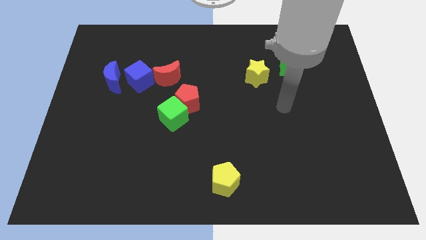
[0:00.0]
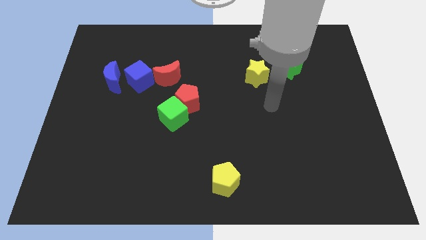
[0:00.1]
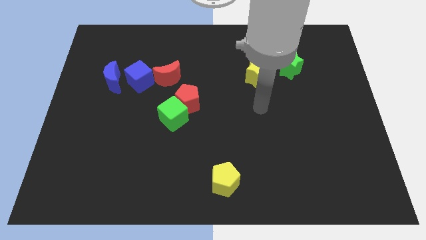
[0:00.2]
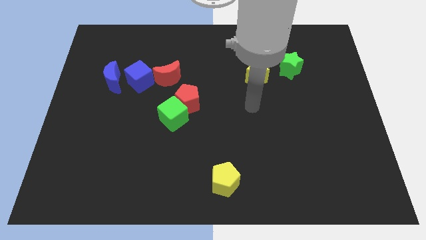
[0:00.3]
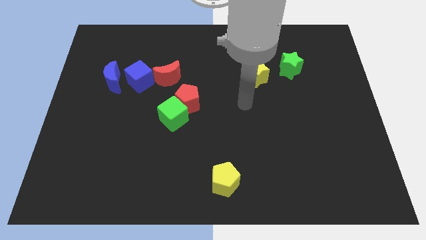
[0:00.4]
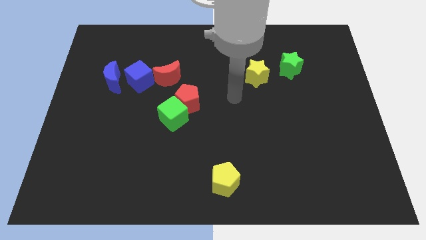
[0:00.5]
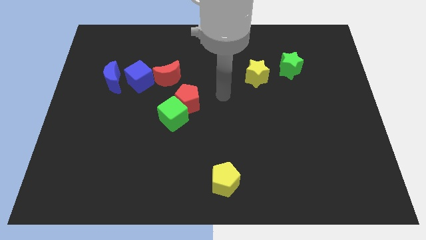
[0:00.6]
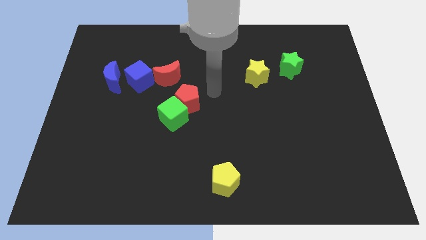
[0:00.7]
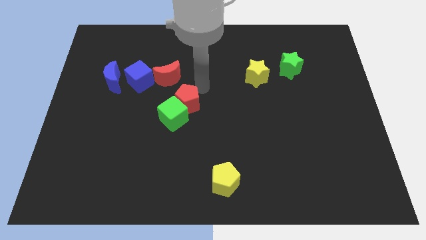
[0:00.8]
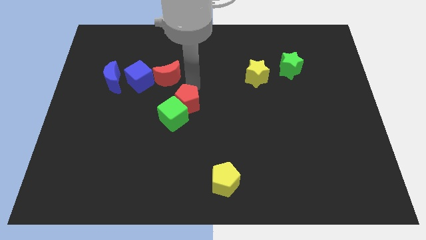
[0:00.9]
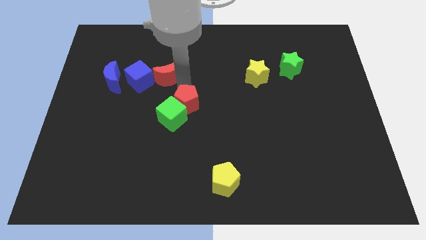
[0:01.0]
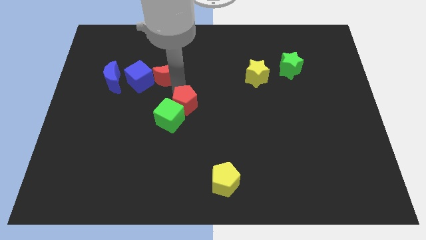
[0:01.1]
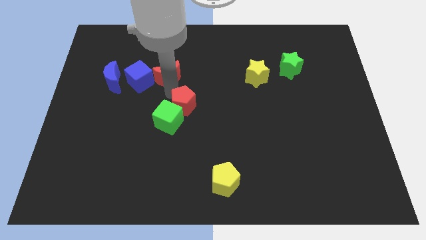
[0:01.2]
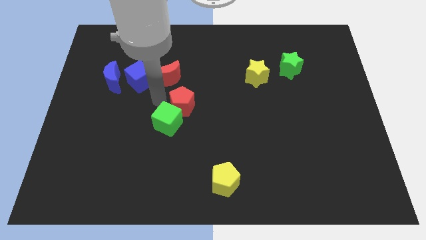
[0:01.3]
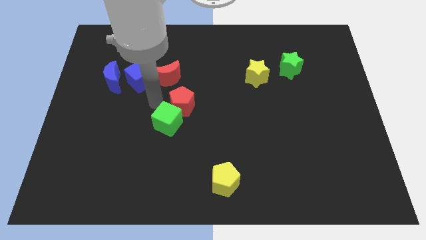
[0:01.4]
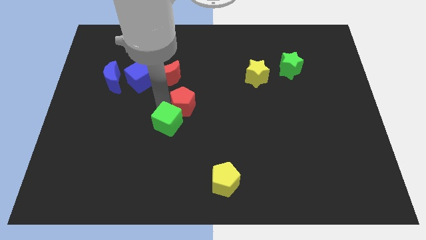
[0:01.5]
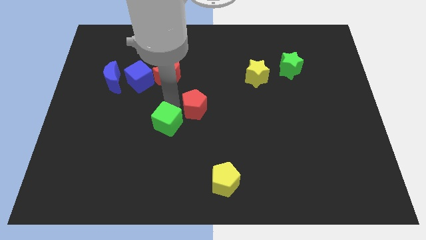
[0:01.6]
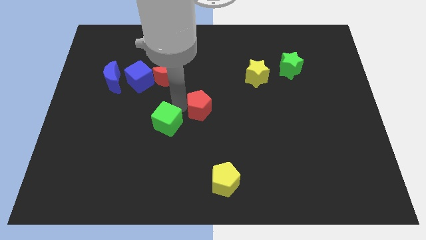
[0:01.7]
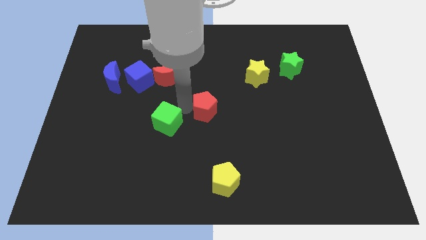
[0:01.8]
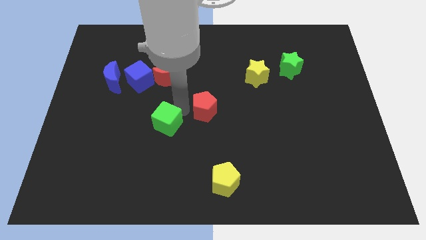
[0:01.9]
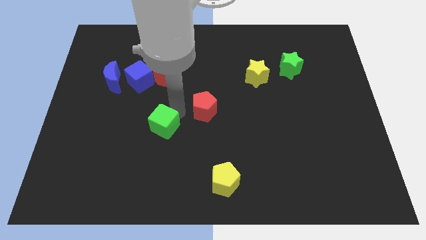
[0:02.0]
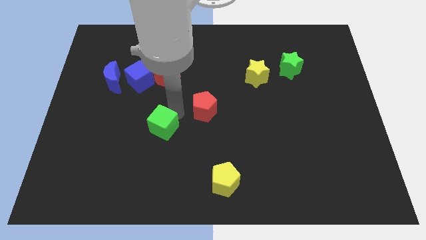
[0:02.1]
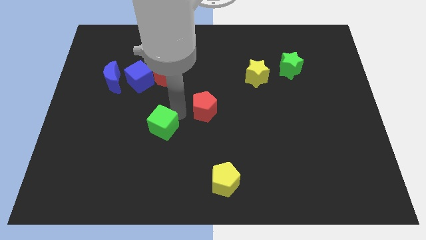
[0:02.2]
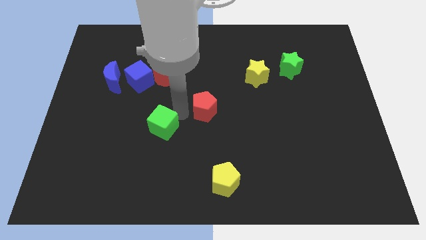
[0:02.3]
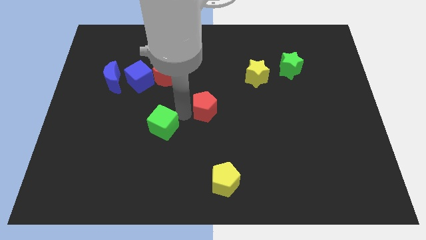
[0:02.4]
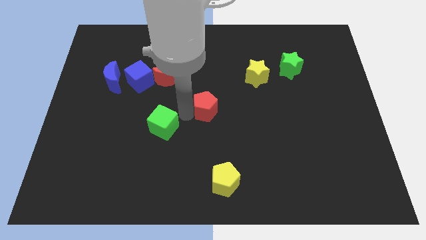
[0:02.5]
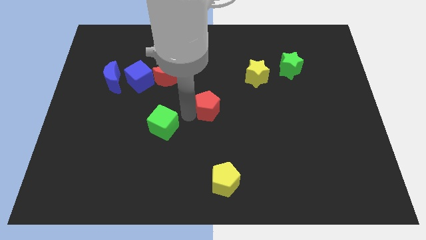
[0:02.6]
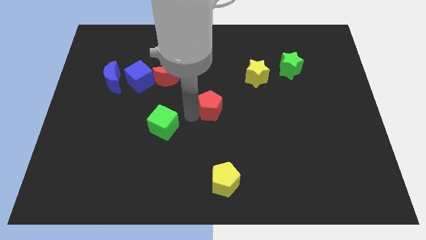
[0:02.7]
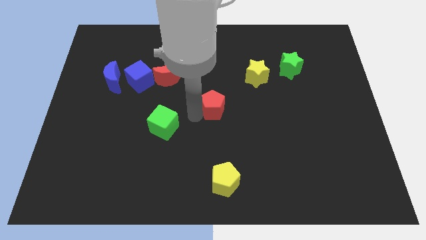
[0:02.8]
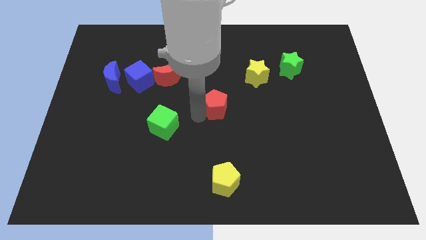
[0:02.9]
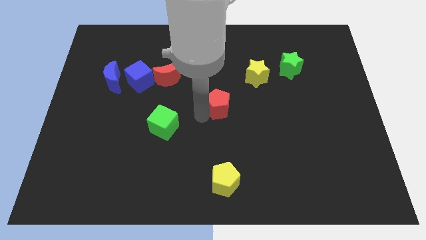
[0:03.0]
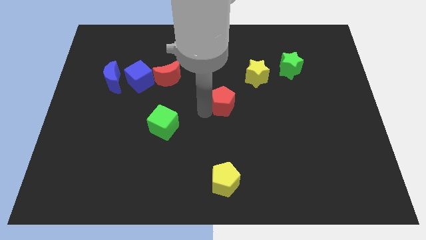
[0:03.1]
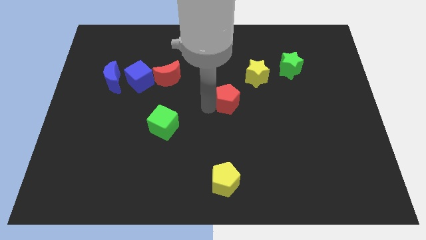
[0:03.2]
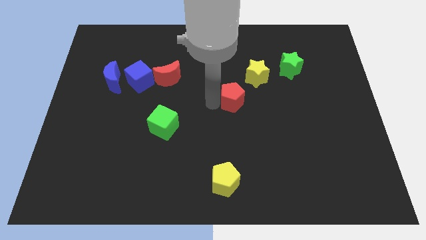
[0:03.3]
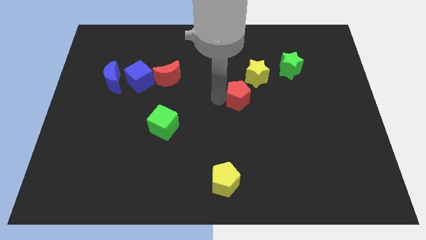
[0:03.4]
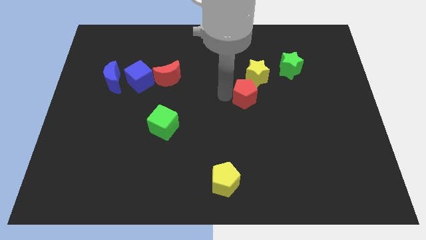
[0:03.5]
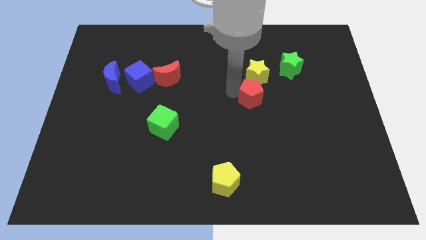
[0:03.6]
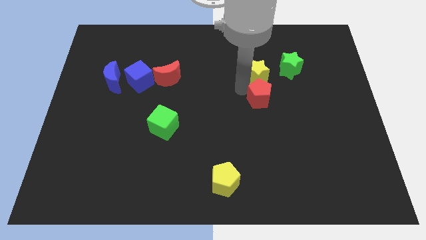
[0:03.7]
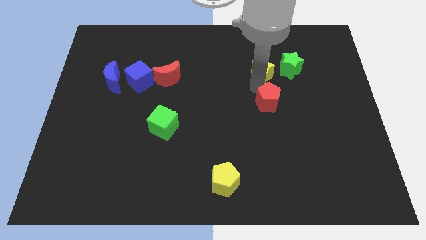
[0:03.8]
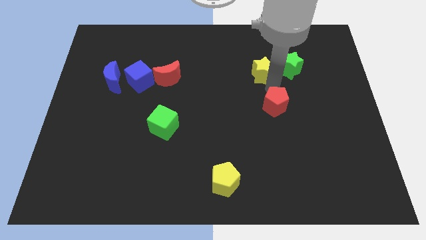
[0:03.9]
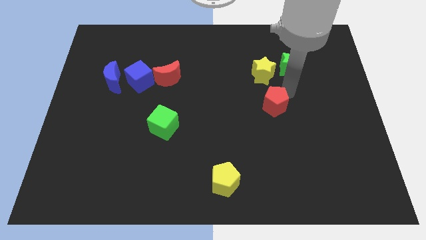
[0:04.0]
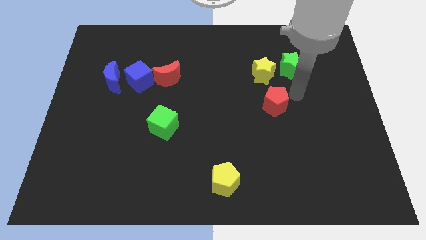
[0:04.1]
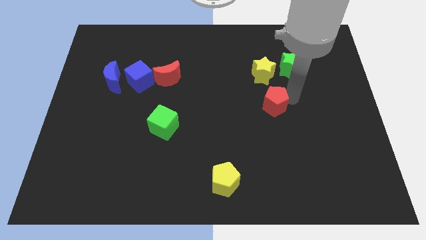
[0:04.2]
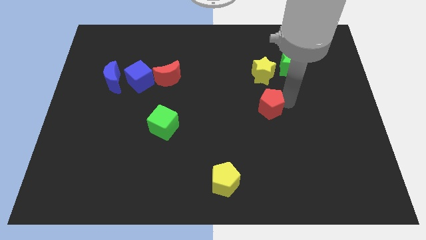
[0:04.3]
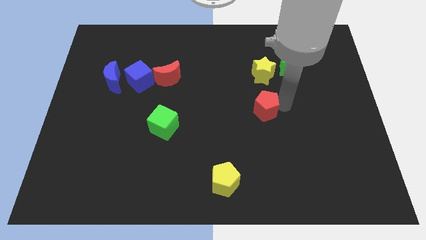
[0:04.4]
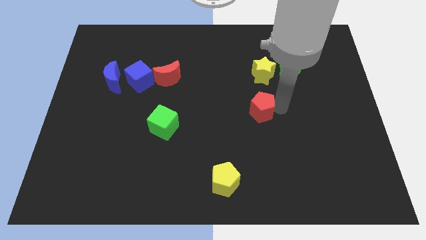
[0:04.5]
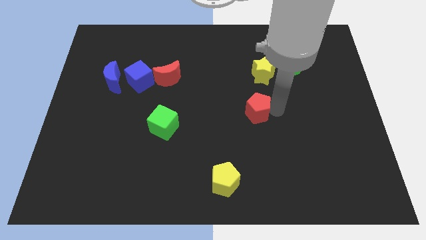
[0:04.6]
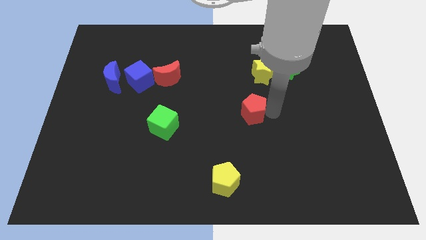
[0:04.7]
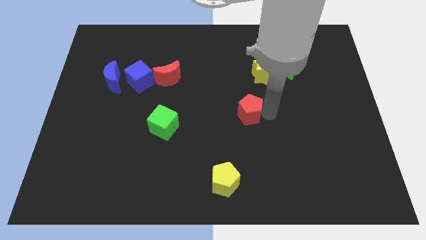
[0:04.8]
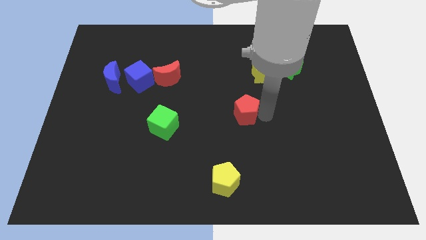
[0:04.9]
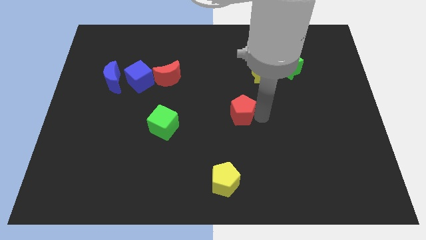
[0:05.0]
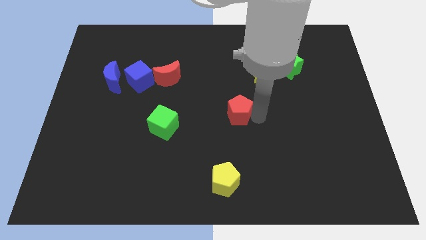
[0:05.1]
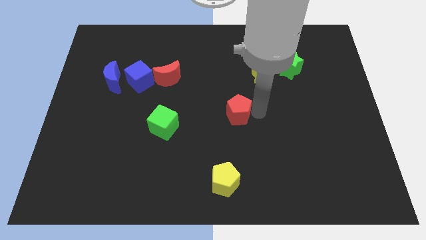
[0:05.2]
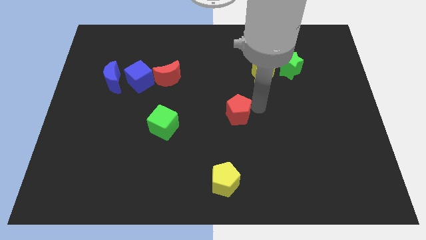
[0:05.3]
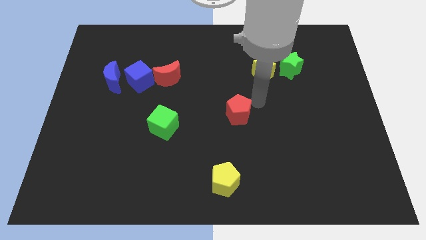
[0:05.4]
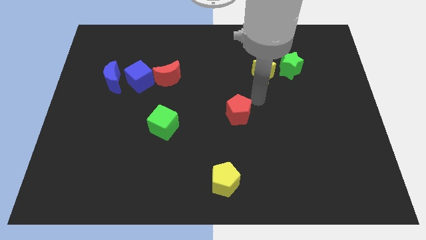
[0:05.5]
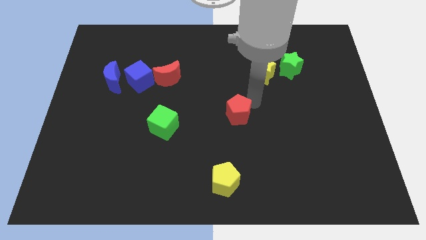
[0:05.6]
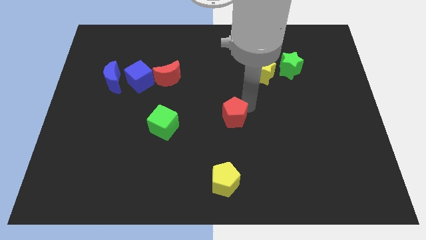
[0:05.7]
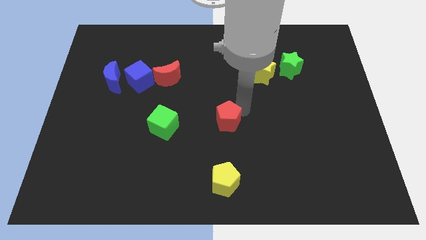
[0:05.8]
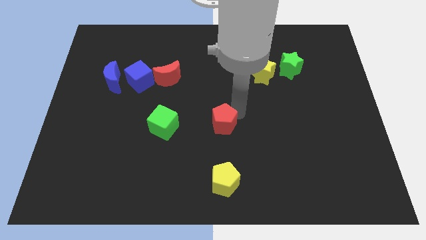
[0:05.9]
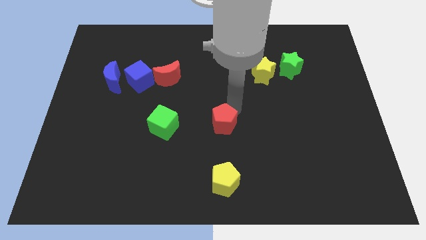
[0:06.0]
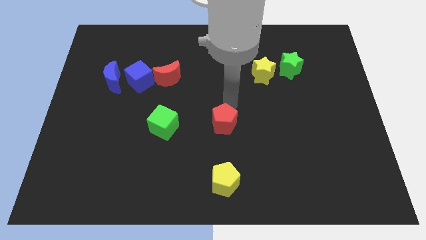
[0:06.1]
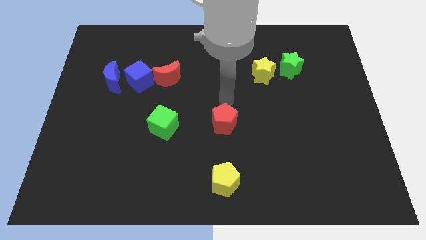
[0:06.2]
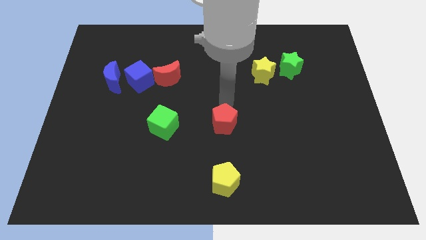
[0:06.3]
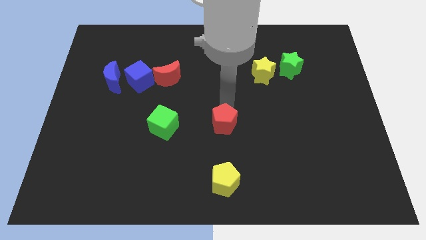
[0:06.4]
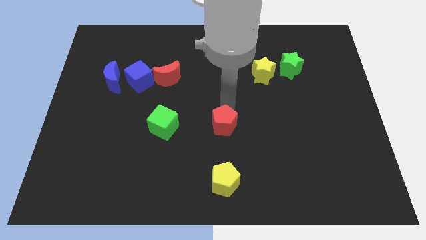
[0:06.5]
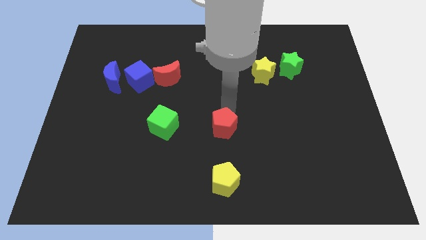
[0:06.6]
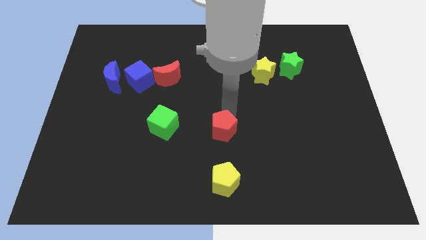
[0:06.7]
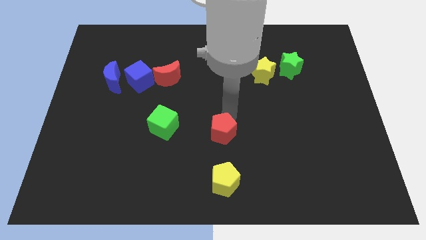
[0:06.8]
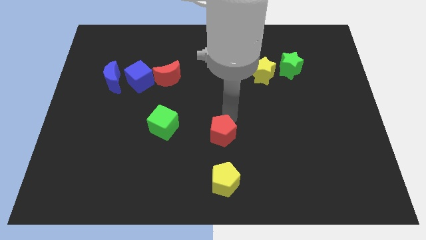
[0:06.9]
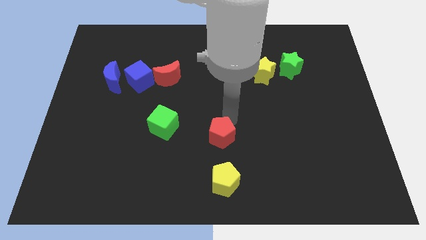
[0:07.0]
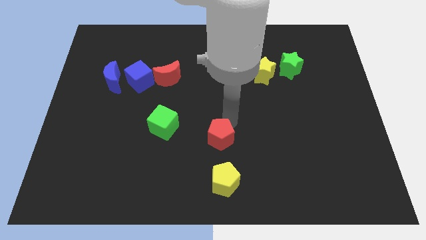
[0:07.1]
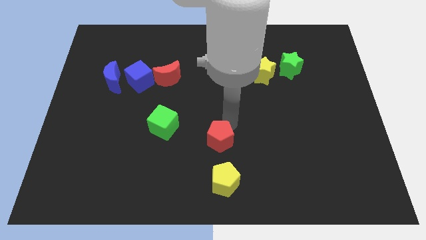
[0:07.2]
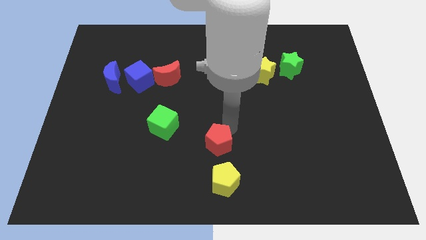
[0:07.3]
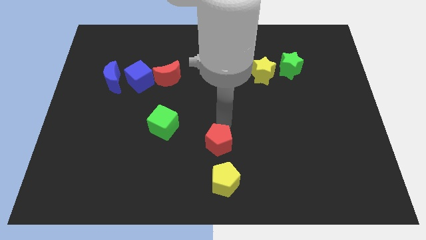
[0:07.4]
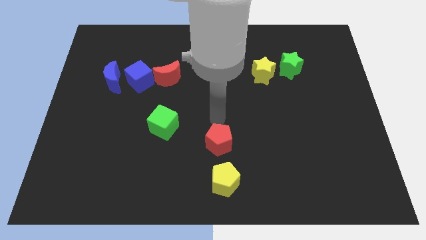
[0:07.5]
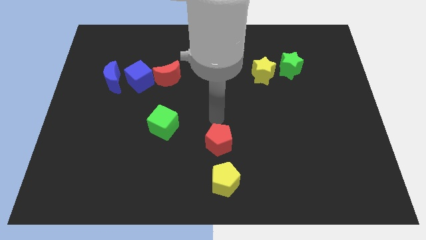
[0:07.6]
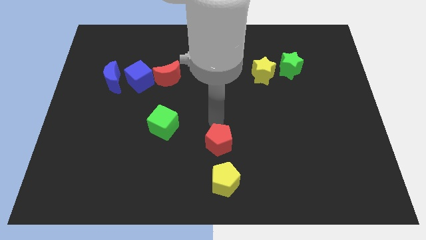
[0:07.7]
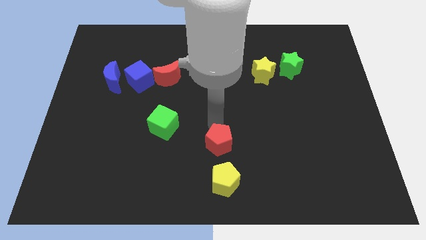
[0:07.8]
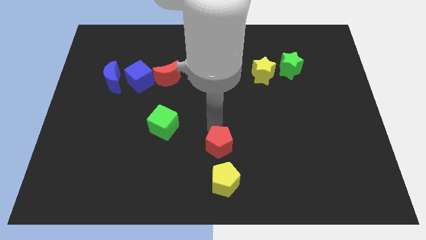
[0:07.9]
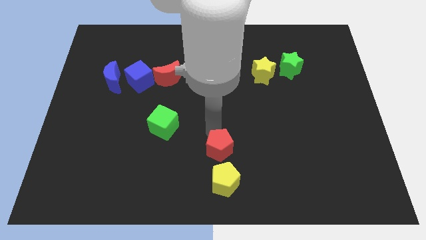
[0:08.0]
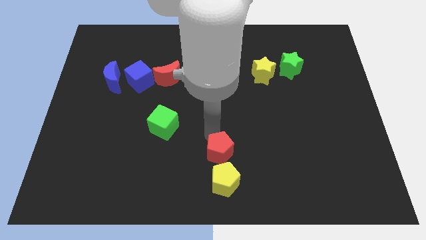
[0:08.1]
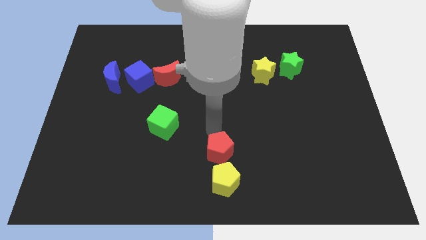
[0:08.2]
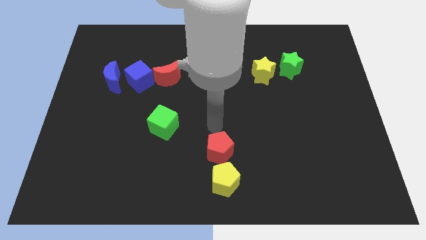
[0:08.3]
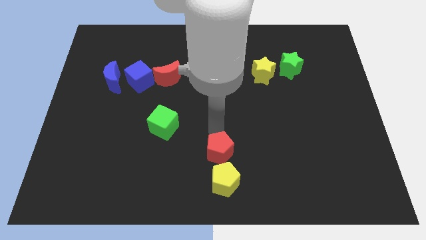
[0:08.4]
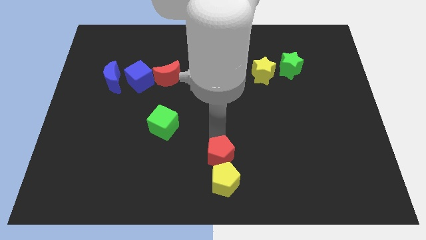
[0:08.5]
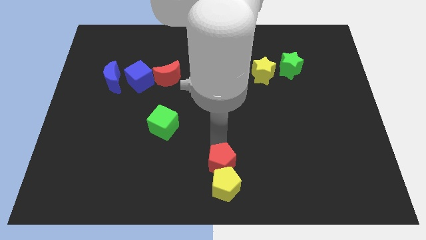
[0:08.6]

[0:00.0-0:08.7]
put the red pentagon next to the yellow pentagon
